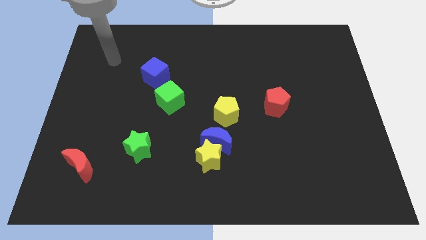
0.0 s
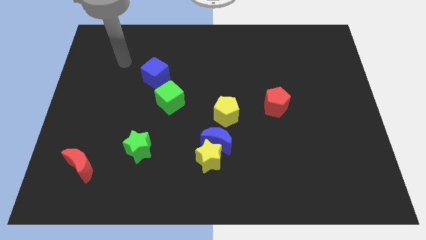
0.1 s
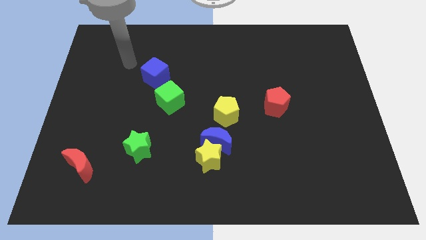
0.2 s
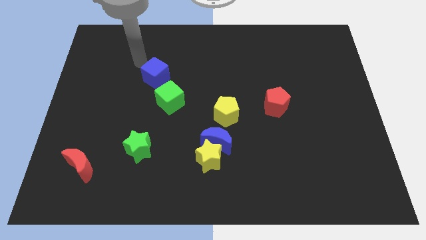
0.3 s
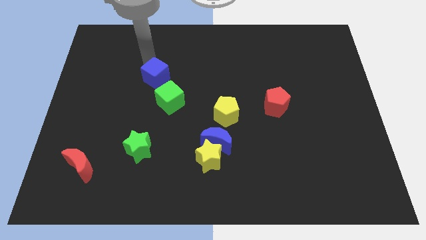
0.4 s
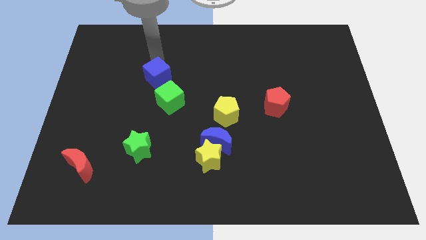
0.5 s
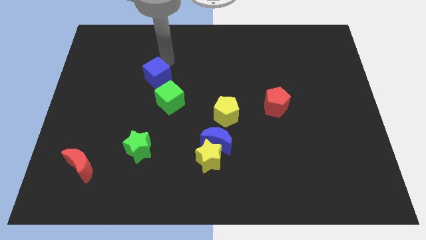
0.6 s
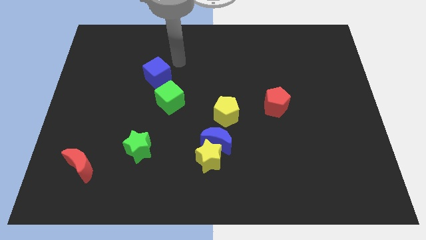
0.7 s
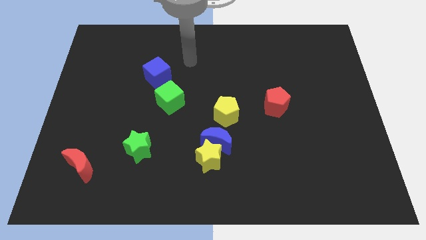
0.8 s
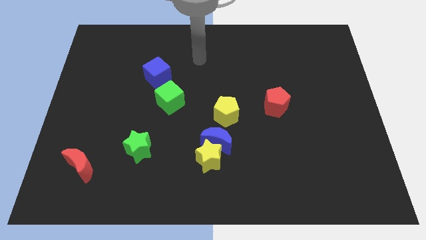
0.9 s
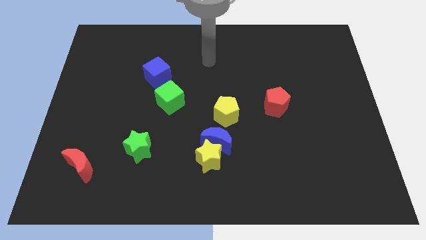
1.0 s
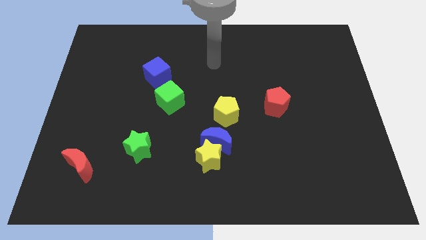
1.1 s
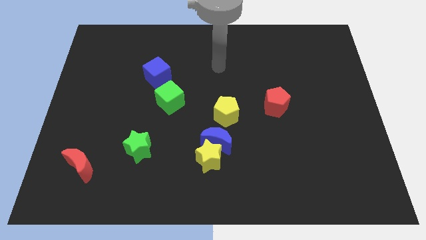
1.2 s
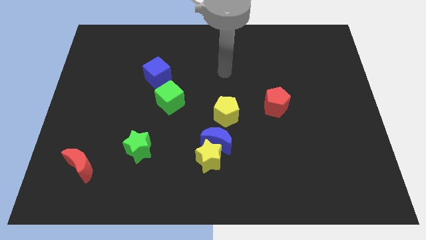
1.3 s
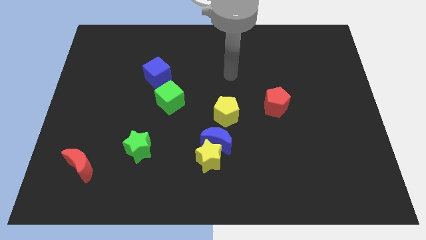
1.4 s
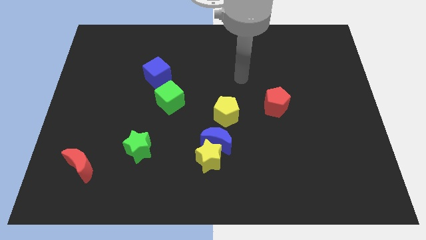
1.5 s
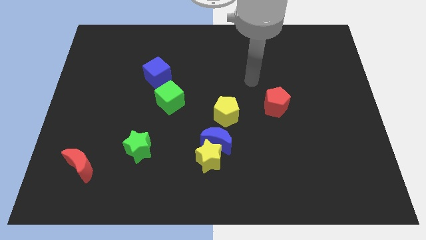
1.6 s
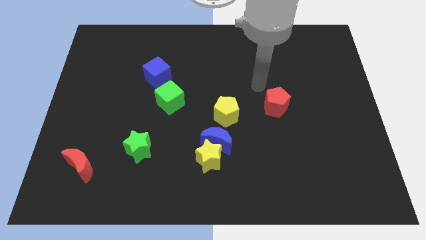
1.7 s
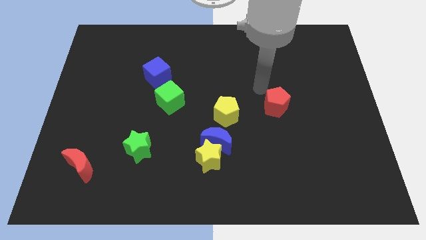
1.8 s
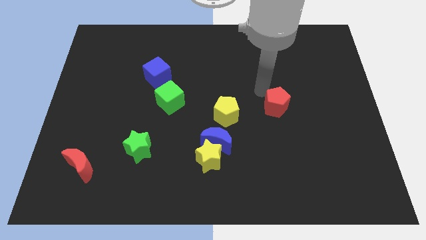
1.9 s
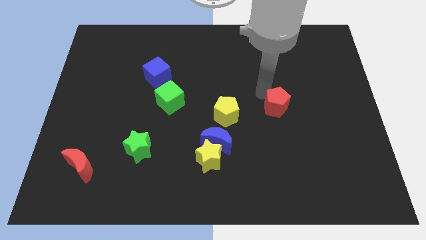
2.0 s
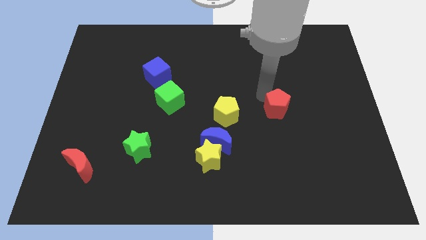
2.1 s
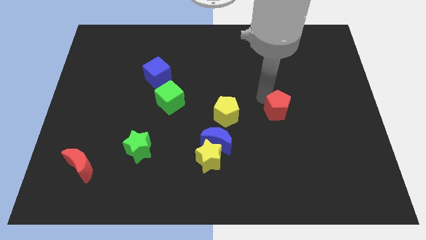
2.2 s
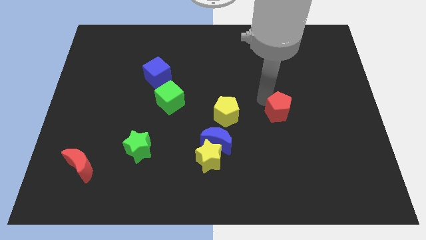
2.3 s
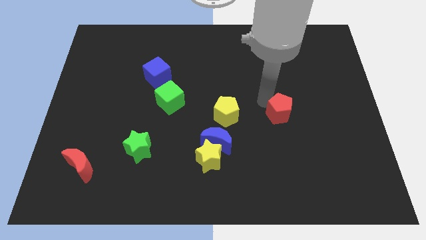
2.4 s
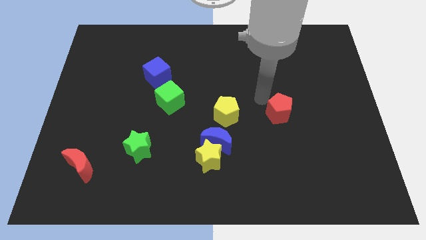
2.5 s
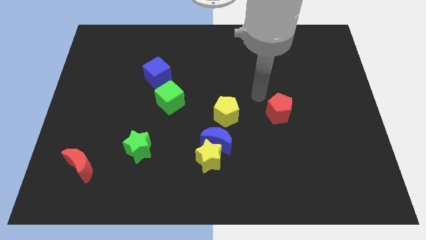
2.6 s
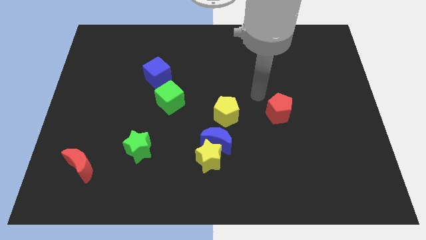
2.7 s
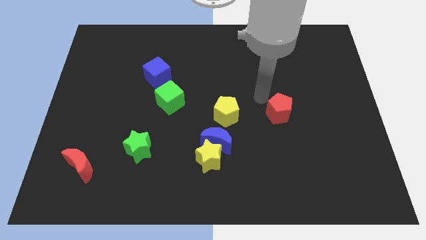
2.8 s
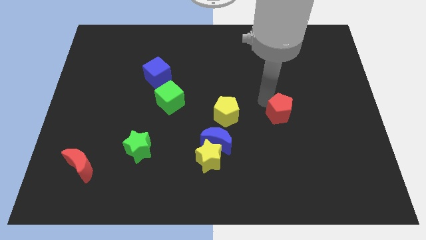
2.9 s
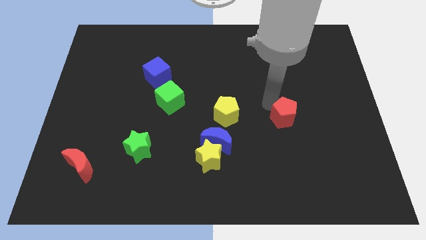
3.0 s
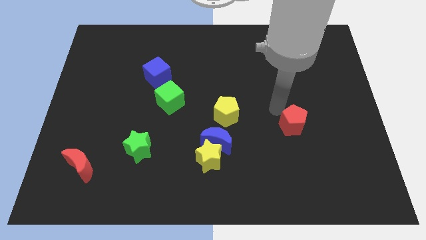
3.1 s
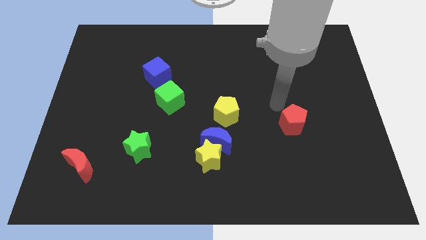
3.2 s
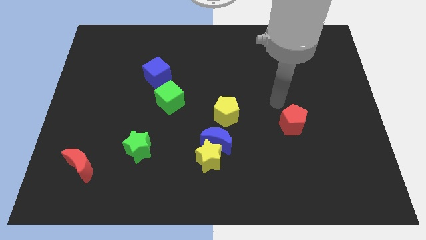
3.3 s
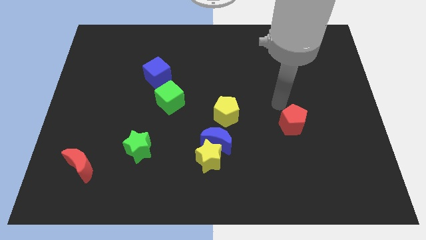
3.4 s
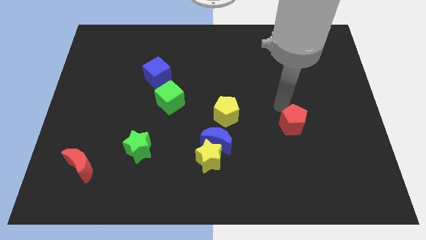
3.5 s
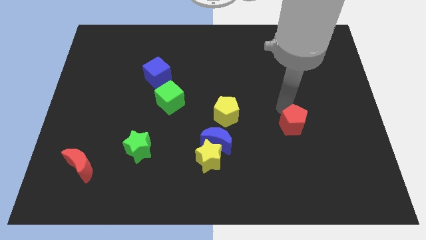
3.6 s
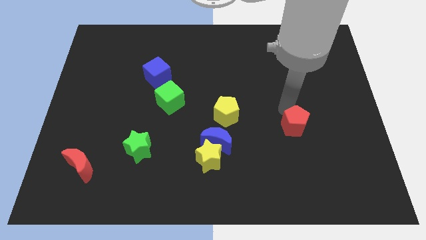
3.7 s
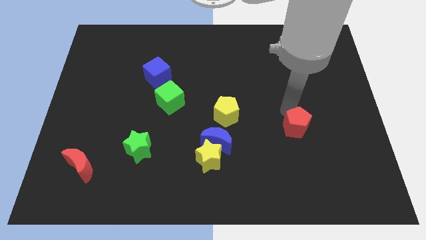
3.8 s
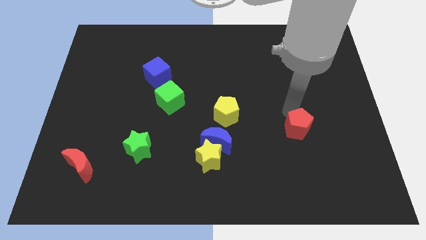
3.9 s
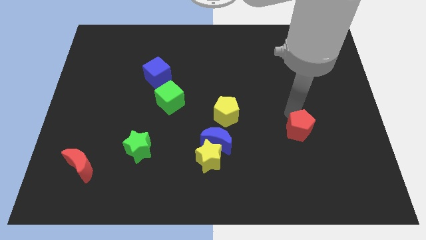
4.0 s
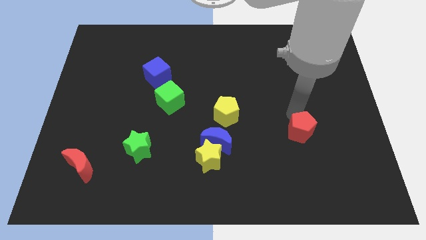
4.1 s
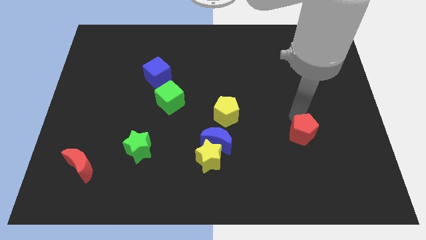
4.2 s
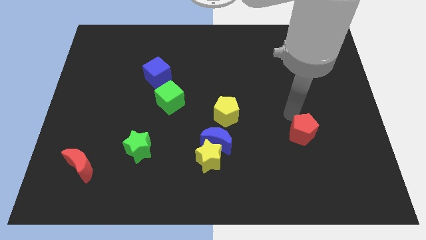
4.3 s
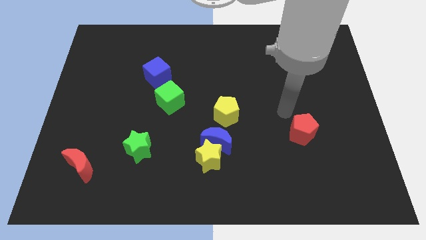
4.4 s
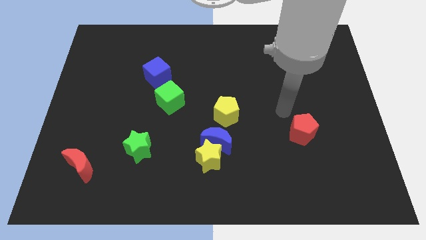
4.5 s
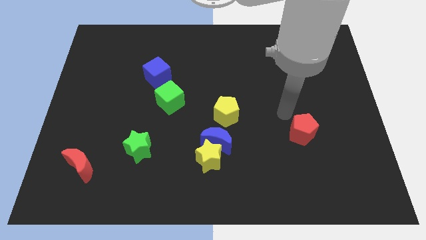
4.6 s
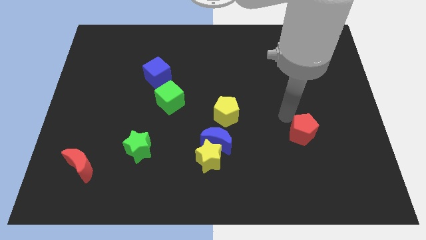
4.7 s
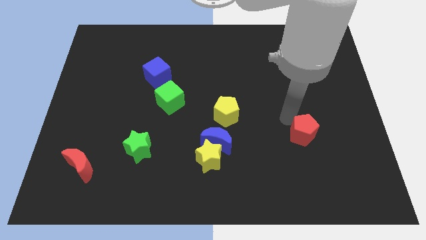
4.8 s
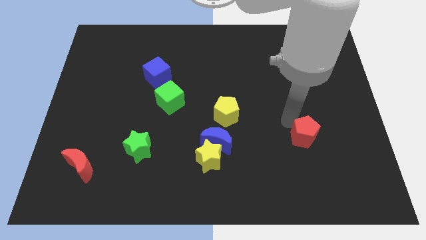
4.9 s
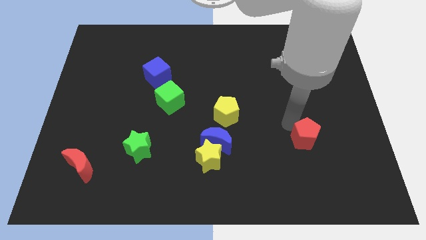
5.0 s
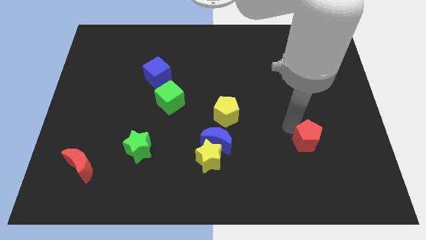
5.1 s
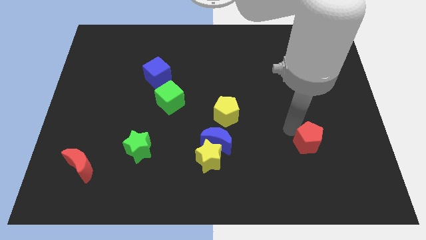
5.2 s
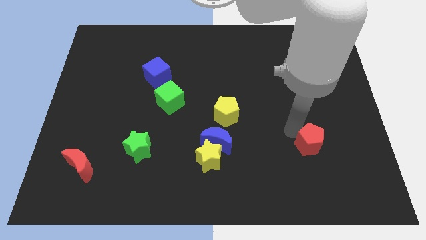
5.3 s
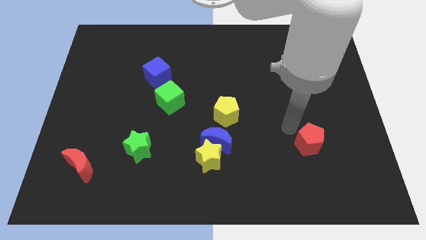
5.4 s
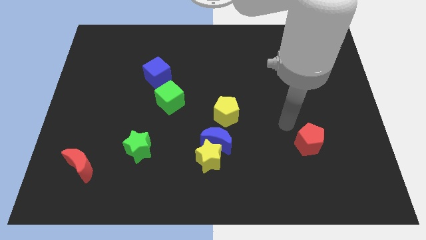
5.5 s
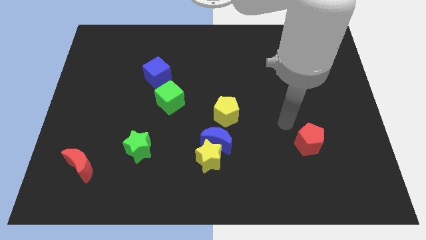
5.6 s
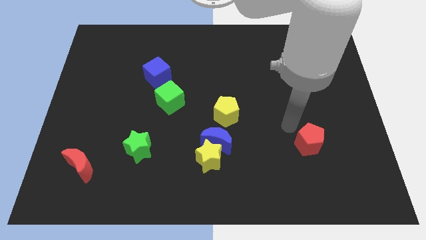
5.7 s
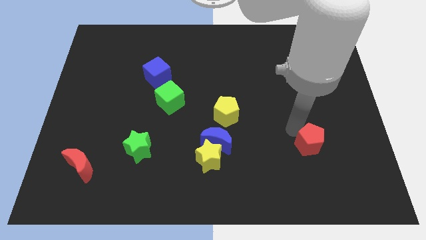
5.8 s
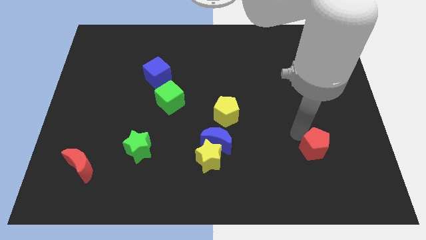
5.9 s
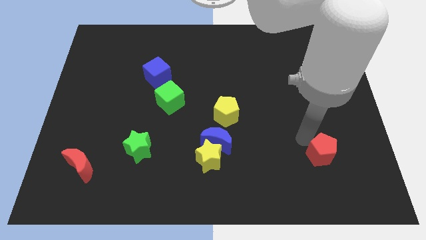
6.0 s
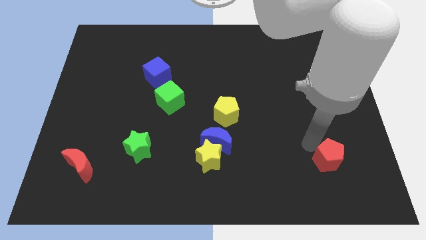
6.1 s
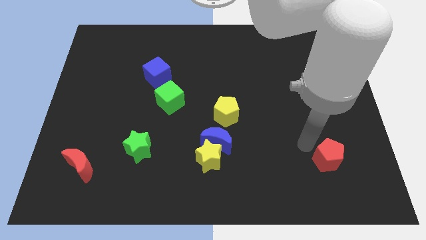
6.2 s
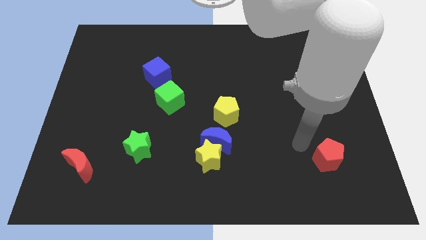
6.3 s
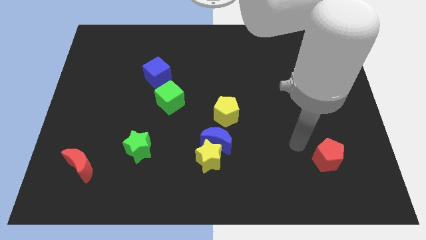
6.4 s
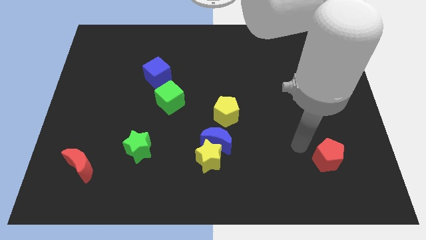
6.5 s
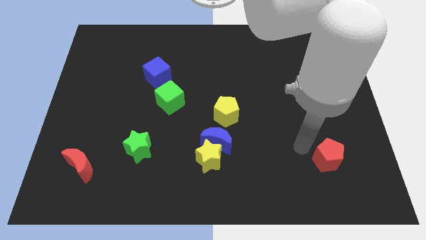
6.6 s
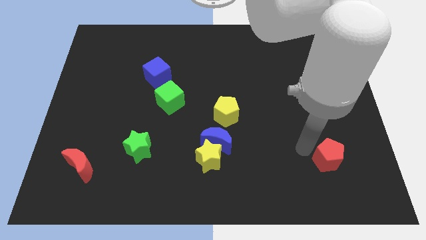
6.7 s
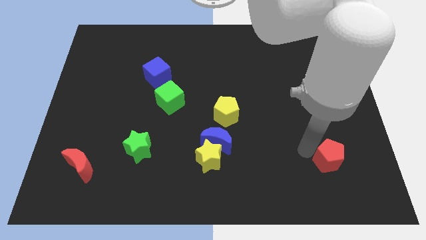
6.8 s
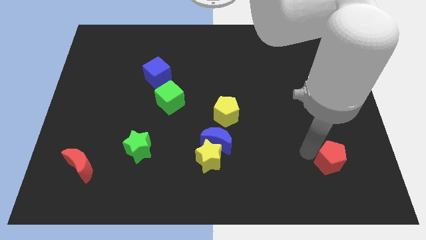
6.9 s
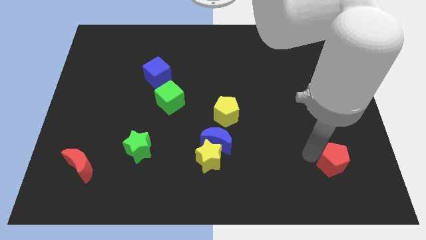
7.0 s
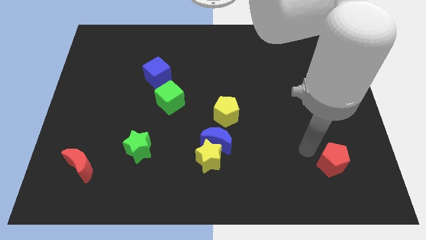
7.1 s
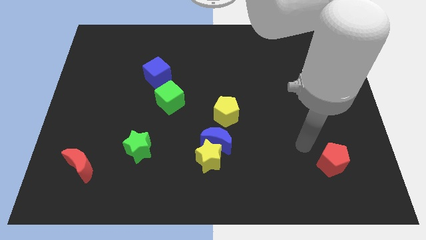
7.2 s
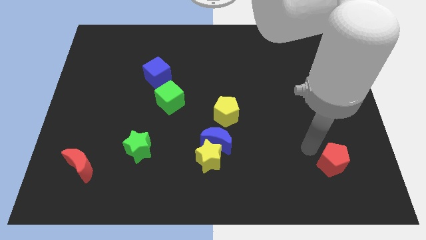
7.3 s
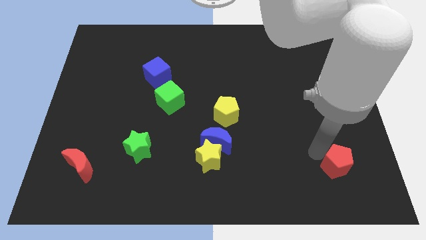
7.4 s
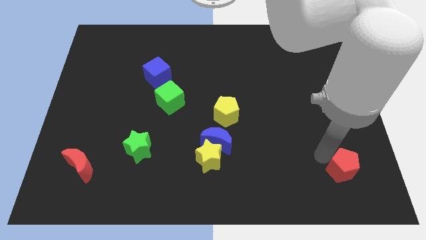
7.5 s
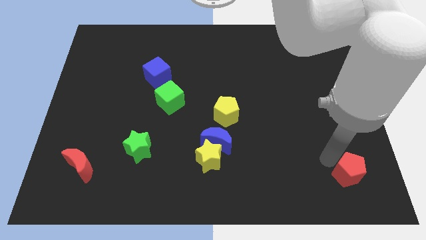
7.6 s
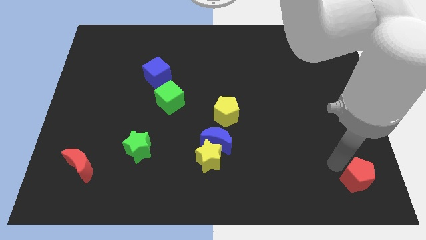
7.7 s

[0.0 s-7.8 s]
slide the red pentagon to the bottom right
